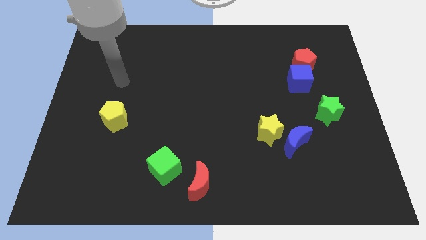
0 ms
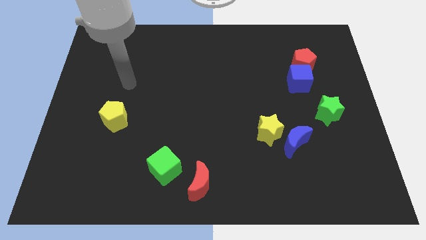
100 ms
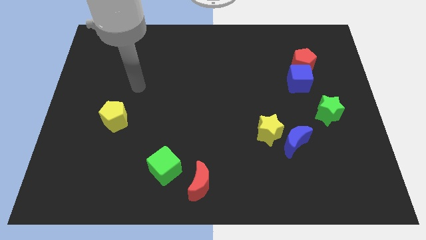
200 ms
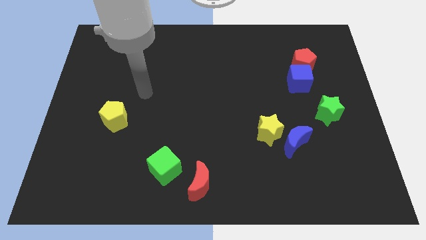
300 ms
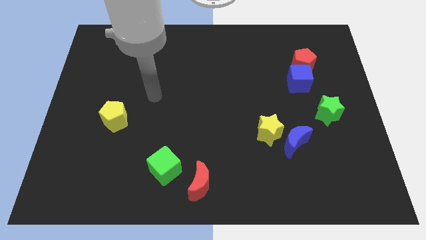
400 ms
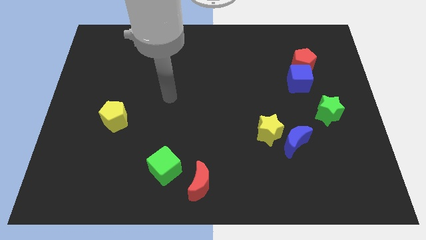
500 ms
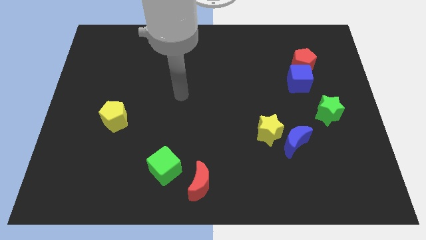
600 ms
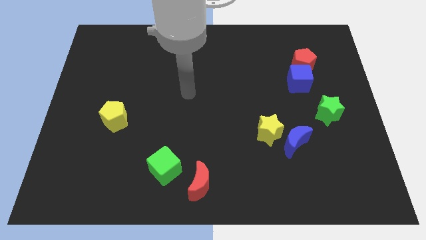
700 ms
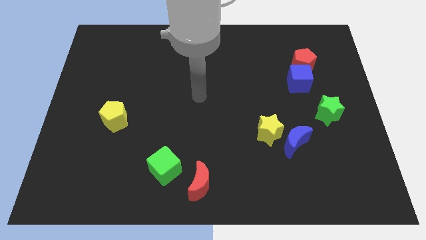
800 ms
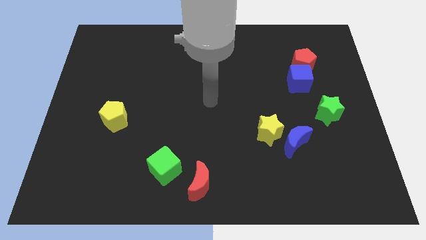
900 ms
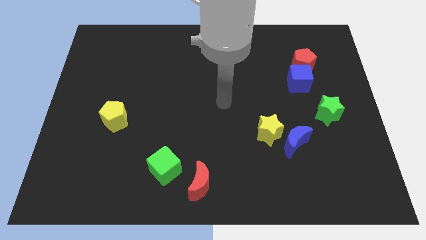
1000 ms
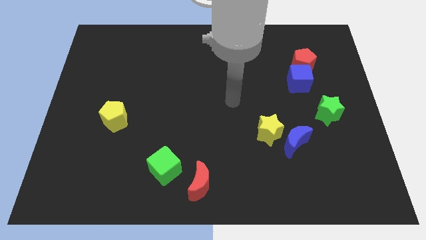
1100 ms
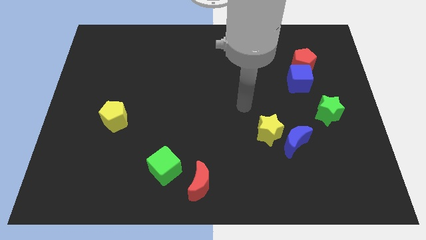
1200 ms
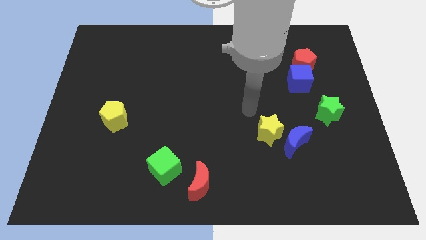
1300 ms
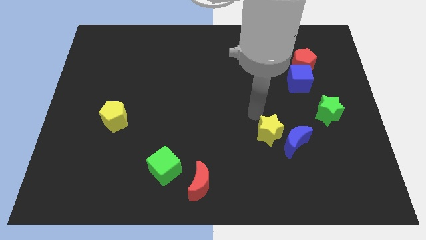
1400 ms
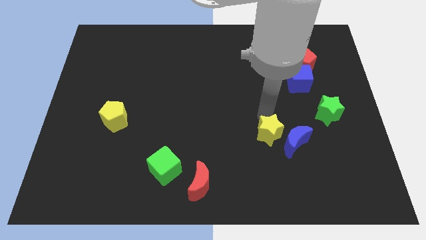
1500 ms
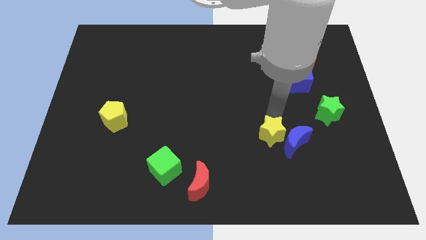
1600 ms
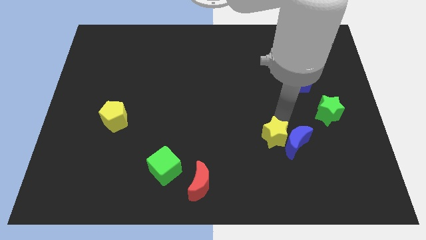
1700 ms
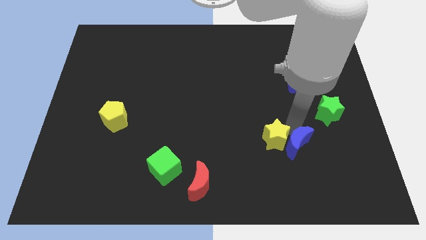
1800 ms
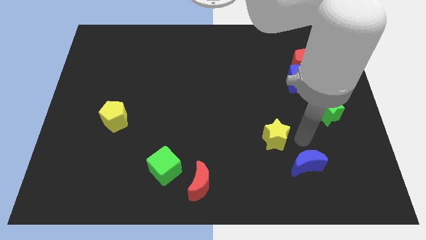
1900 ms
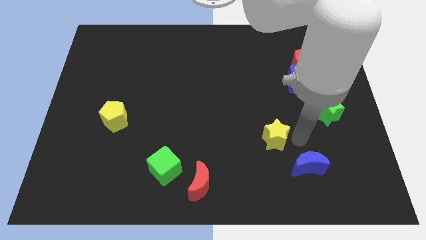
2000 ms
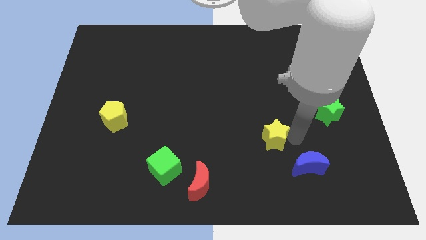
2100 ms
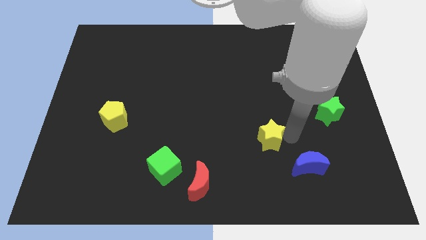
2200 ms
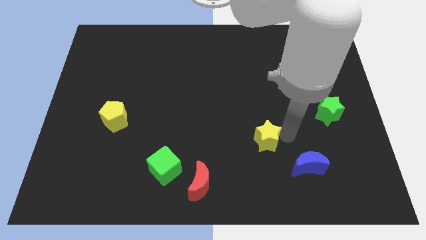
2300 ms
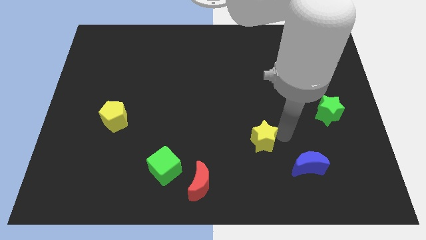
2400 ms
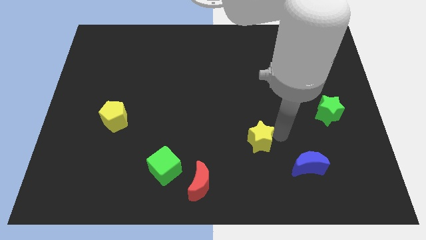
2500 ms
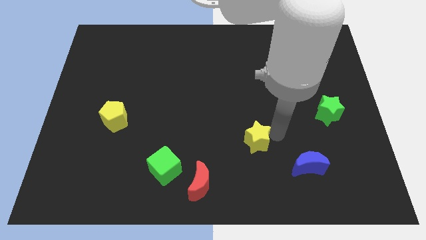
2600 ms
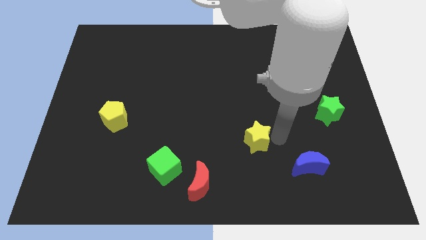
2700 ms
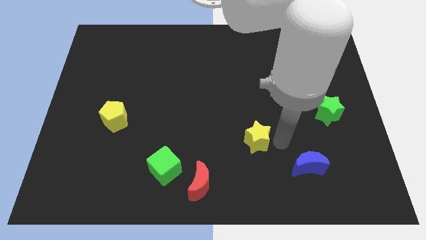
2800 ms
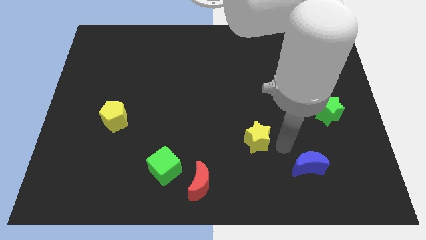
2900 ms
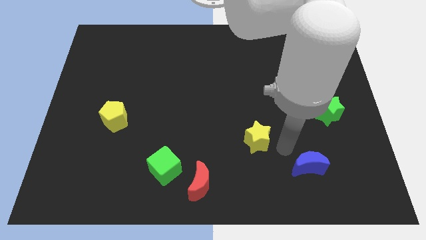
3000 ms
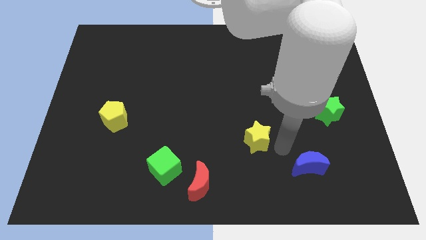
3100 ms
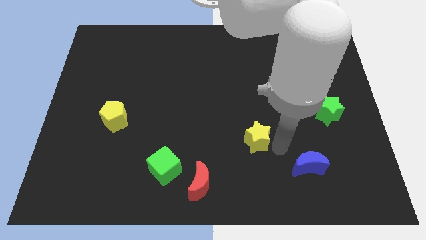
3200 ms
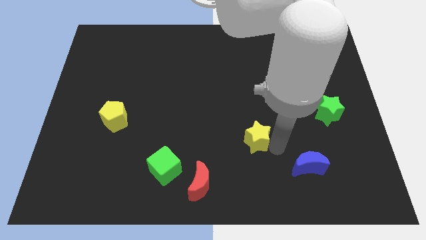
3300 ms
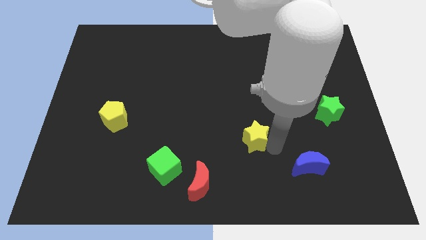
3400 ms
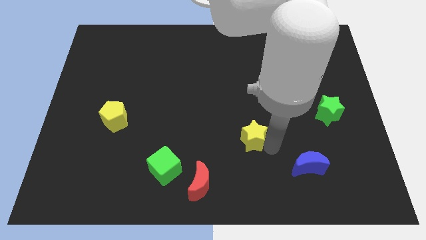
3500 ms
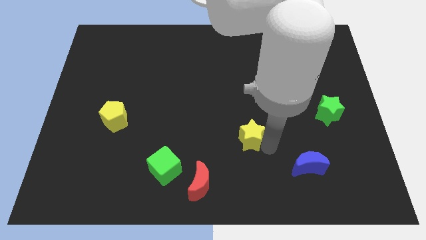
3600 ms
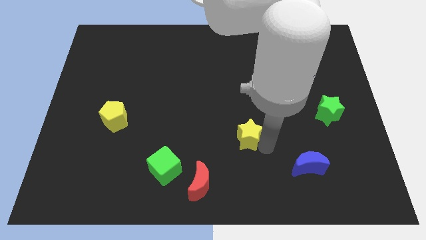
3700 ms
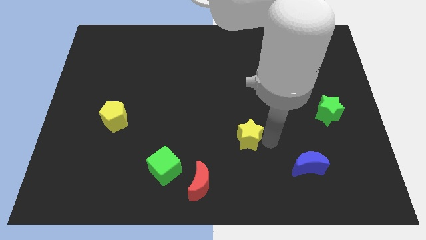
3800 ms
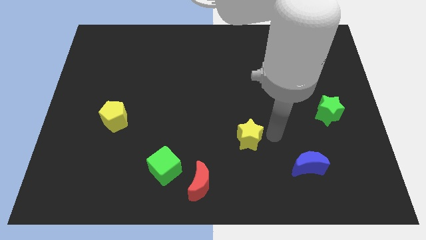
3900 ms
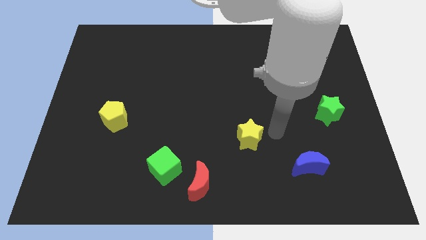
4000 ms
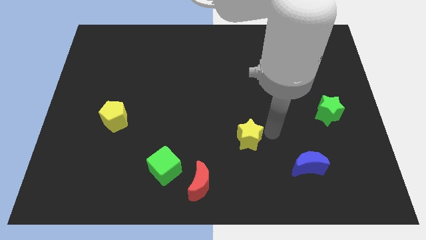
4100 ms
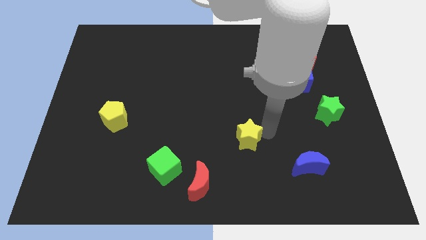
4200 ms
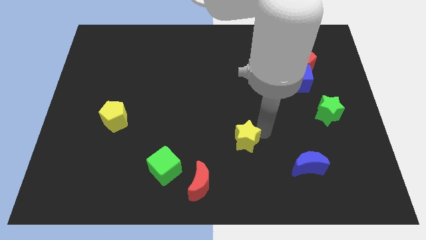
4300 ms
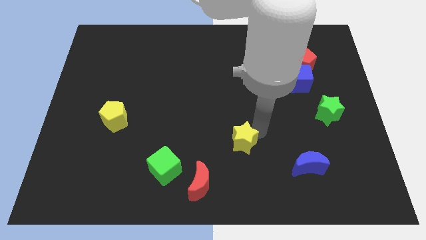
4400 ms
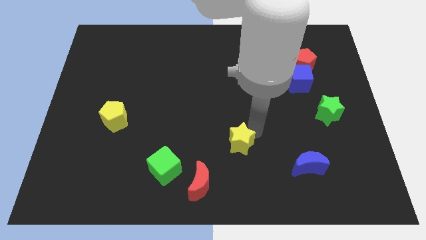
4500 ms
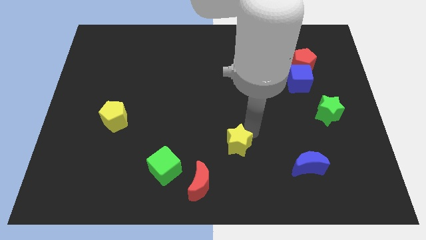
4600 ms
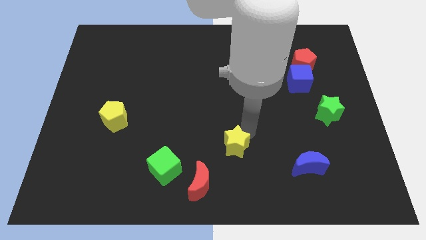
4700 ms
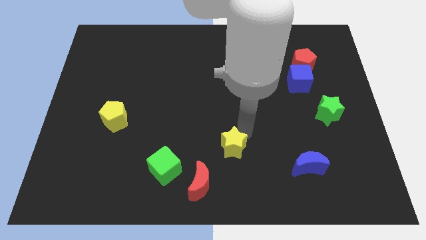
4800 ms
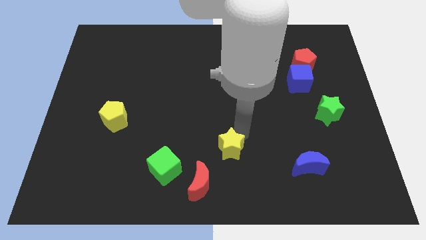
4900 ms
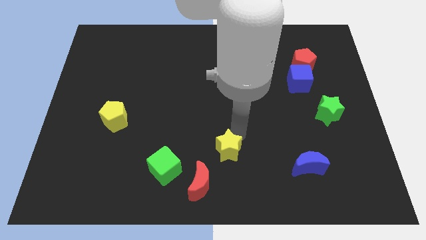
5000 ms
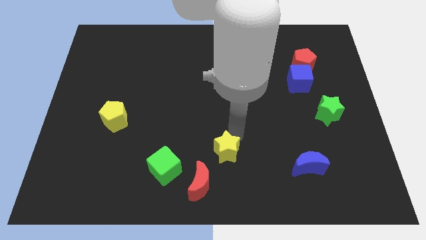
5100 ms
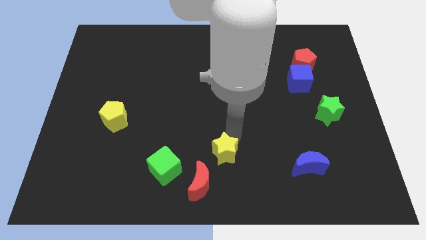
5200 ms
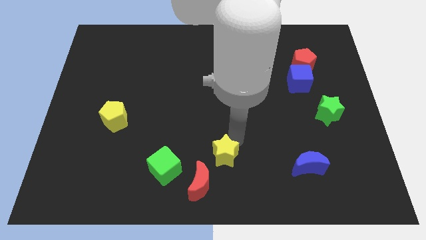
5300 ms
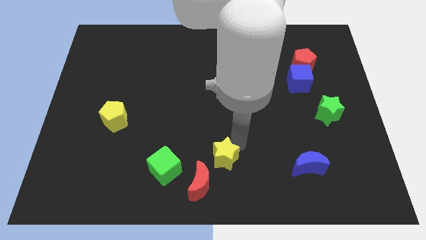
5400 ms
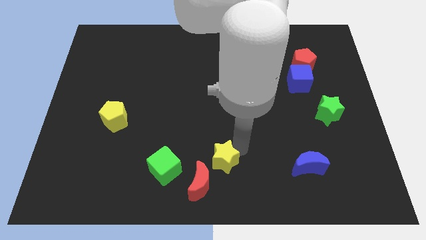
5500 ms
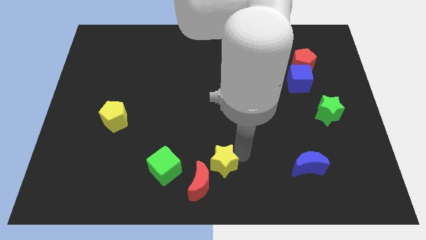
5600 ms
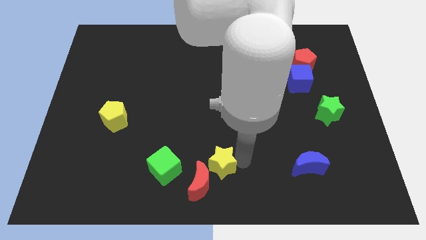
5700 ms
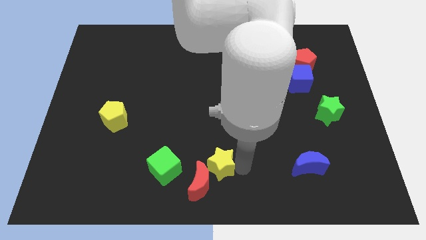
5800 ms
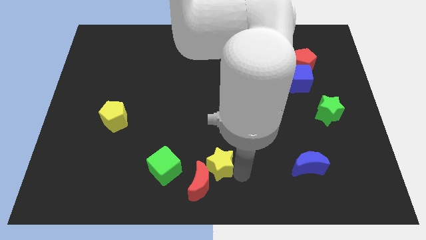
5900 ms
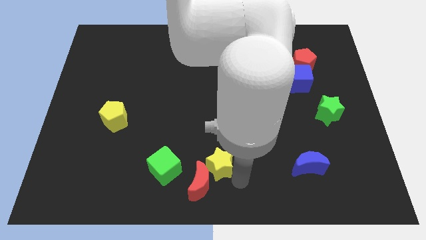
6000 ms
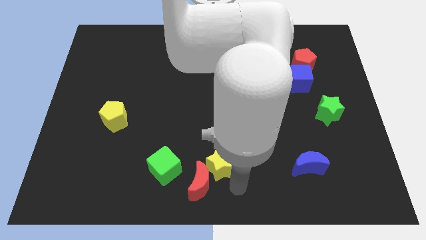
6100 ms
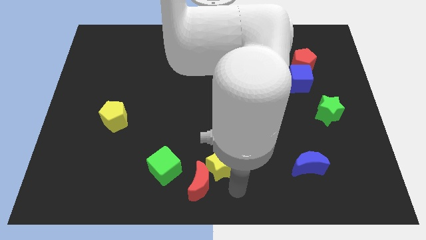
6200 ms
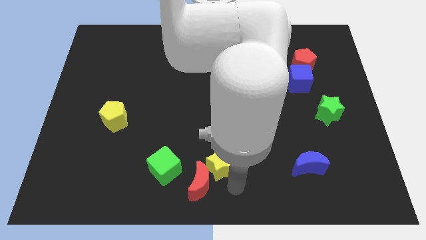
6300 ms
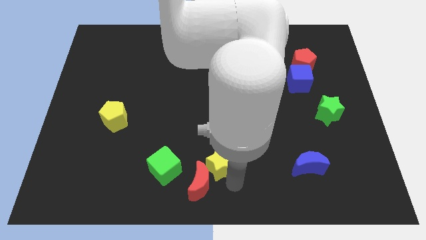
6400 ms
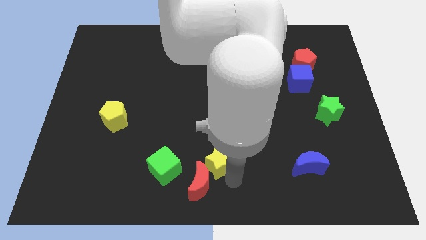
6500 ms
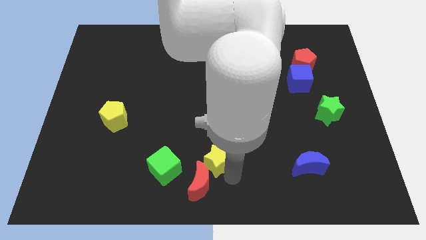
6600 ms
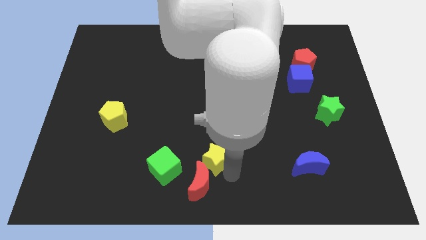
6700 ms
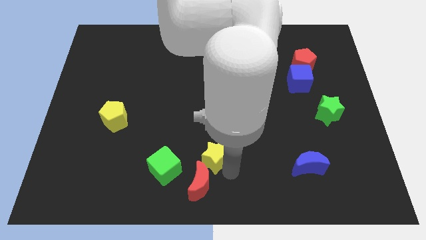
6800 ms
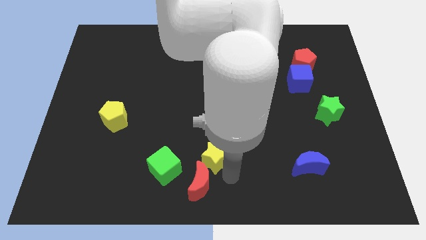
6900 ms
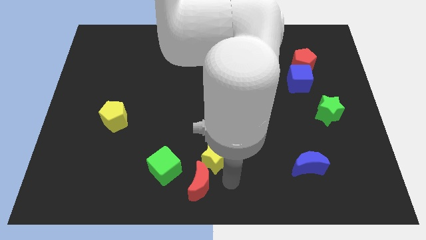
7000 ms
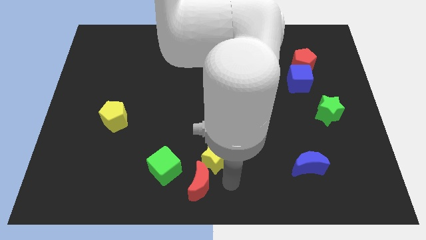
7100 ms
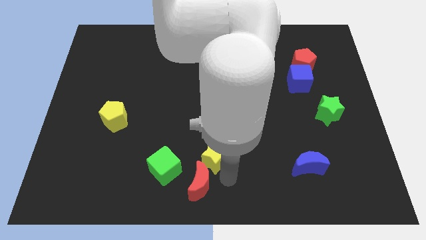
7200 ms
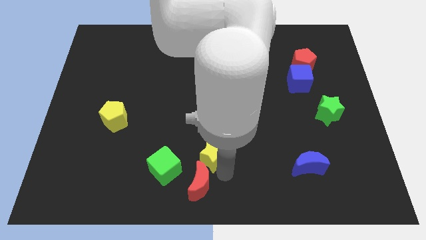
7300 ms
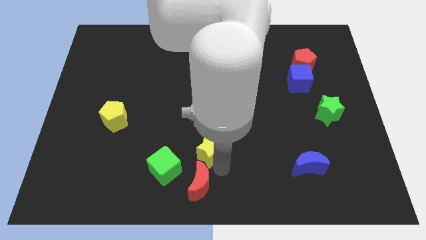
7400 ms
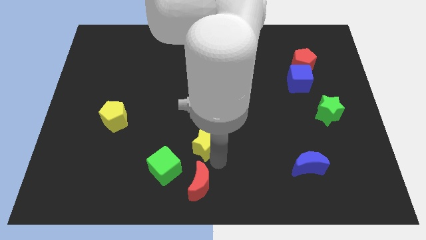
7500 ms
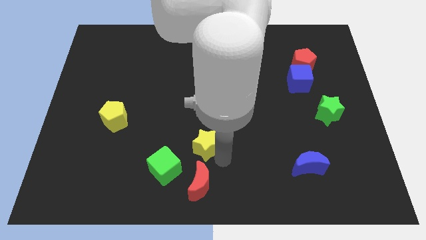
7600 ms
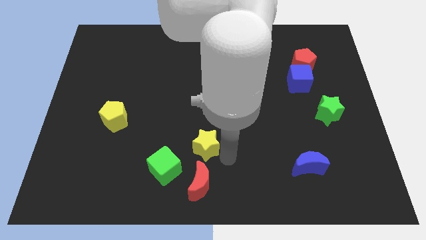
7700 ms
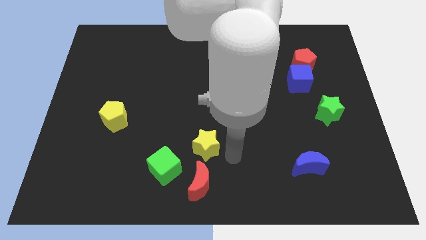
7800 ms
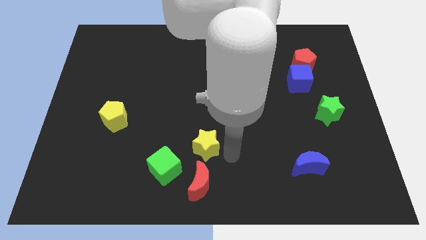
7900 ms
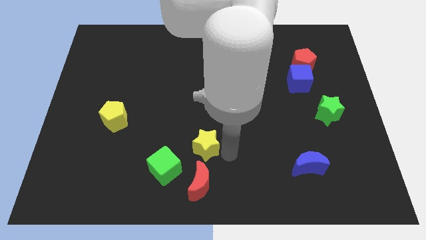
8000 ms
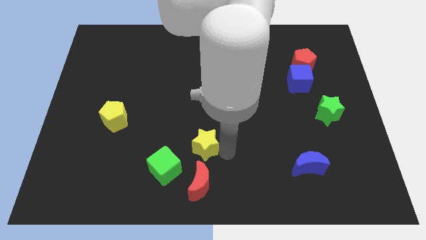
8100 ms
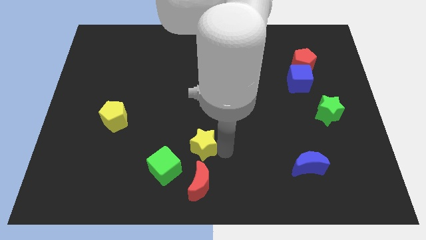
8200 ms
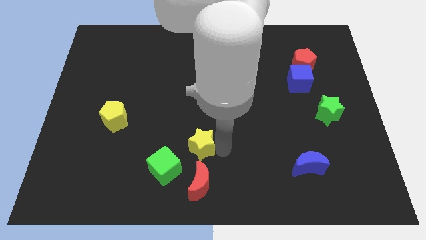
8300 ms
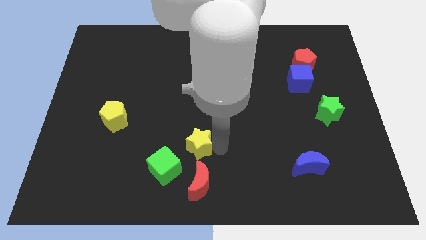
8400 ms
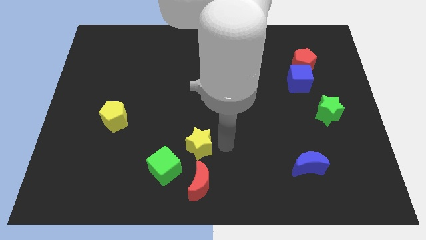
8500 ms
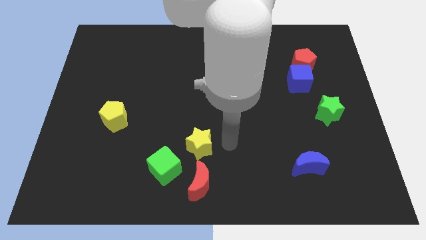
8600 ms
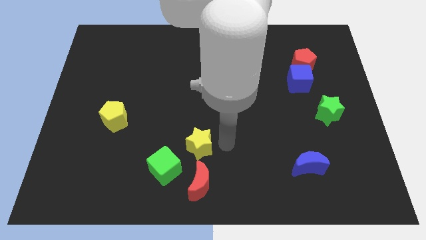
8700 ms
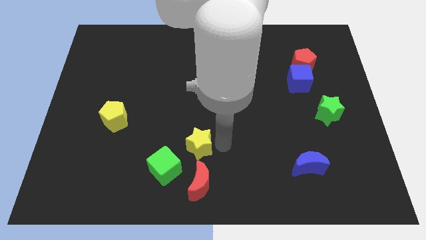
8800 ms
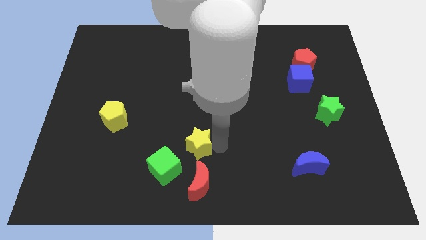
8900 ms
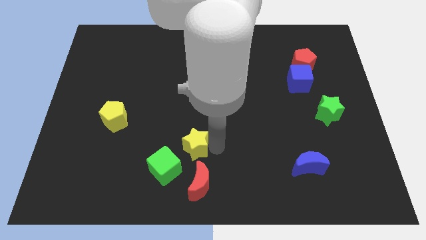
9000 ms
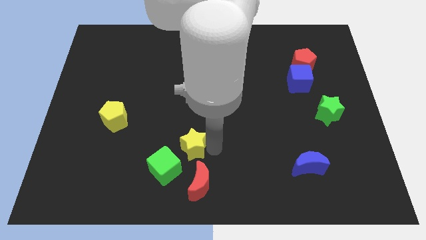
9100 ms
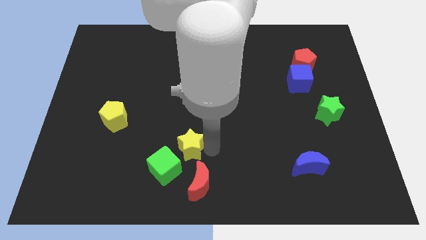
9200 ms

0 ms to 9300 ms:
move the yellow star to the top left of the red moon
